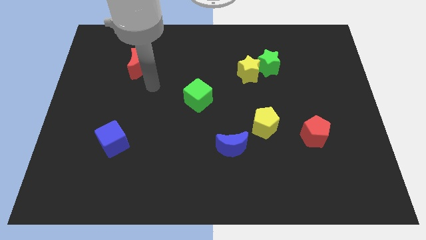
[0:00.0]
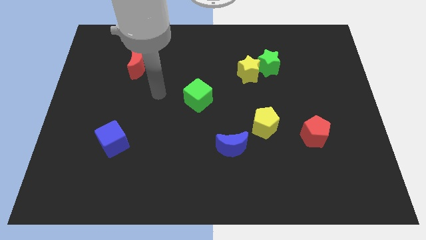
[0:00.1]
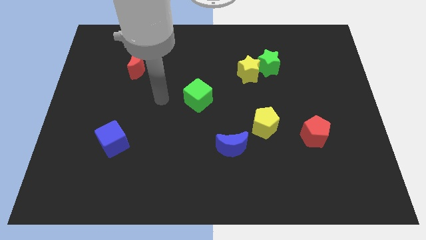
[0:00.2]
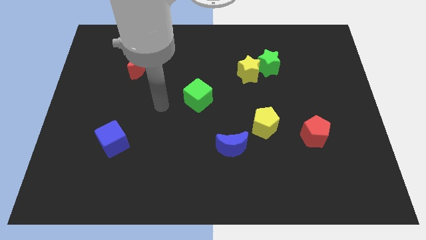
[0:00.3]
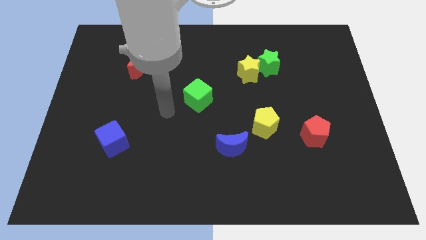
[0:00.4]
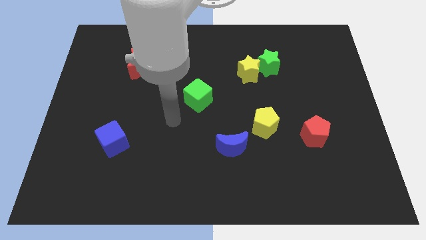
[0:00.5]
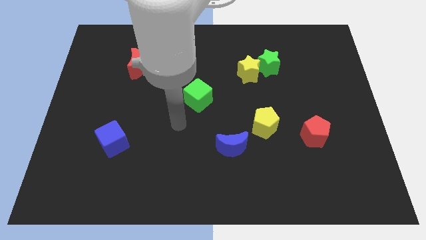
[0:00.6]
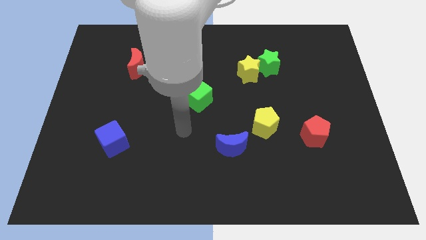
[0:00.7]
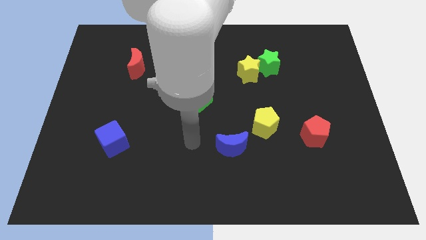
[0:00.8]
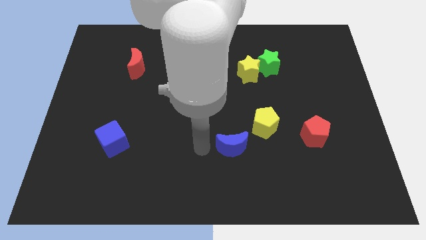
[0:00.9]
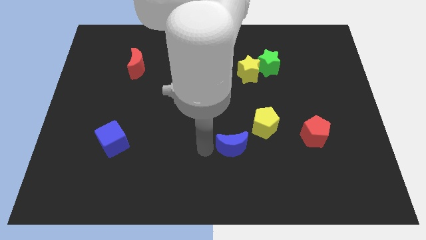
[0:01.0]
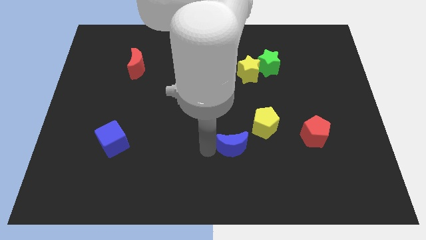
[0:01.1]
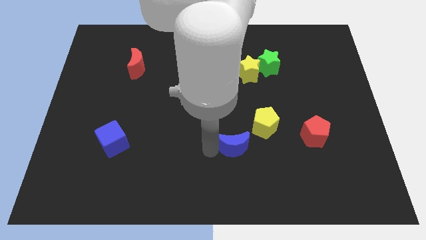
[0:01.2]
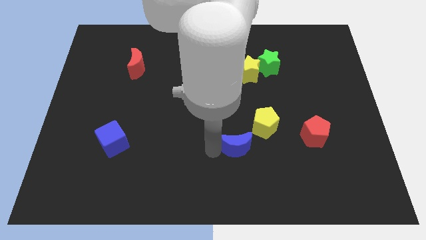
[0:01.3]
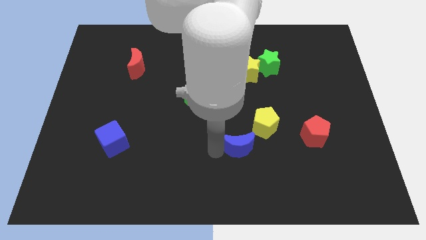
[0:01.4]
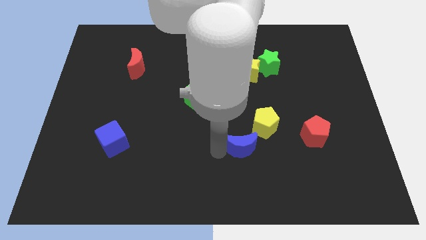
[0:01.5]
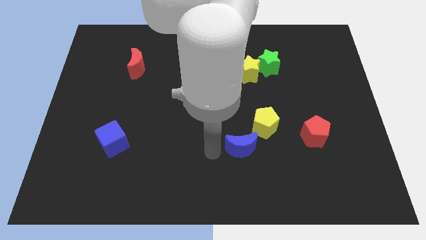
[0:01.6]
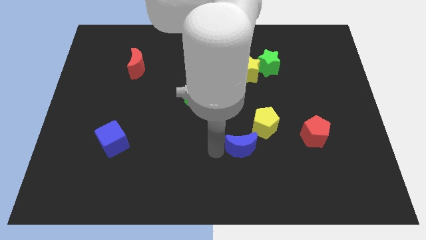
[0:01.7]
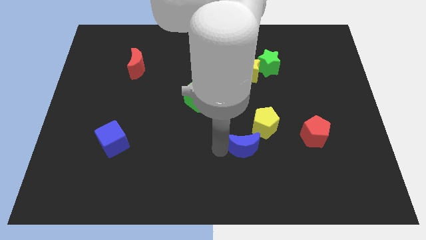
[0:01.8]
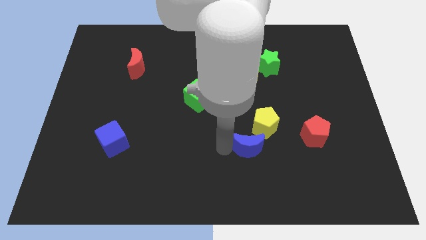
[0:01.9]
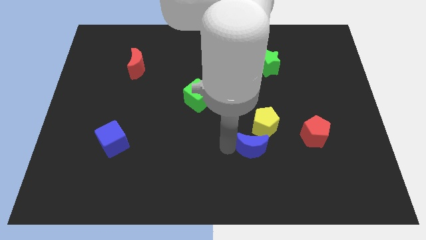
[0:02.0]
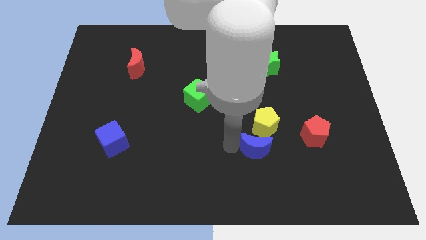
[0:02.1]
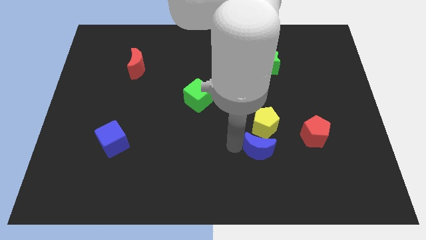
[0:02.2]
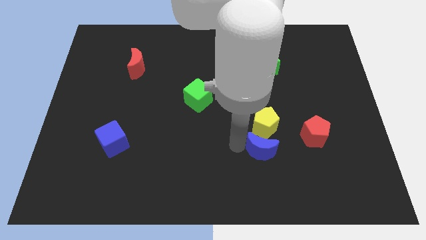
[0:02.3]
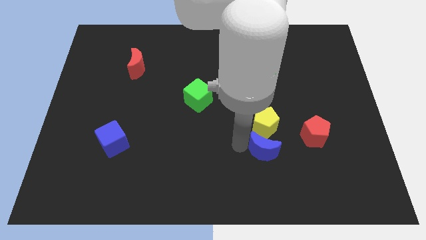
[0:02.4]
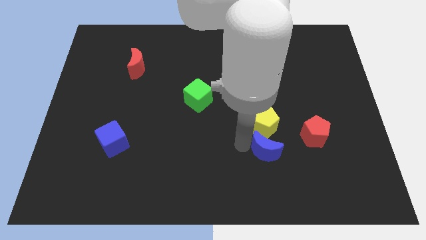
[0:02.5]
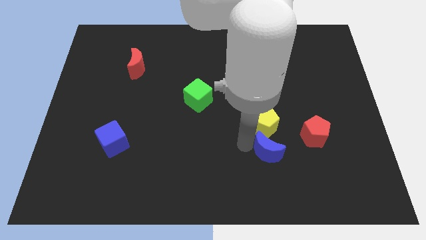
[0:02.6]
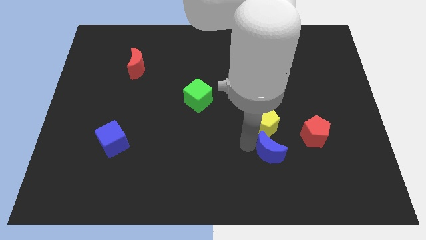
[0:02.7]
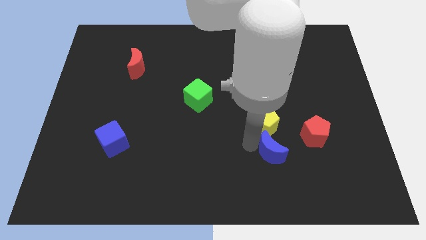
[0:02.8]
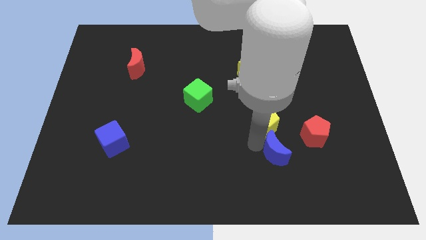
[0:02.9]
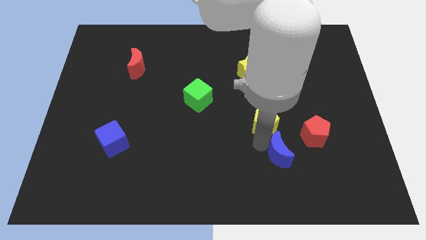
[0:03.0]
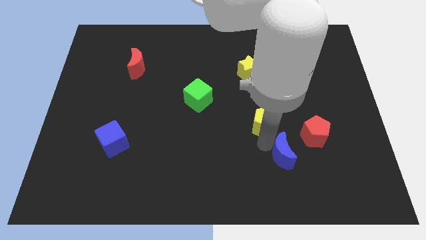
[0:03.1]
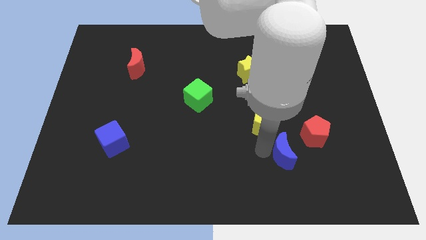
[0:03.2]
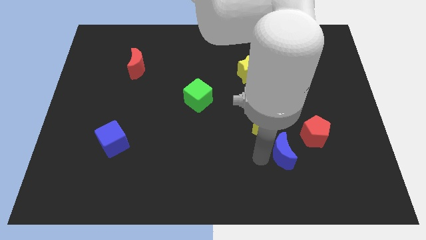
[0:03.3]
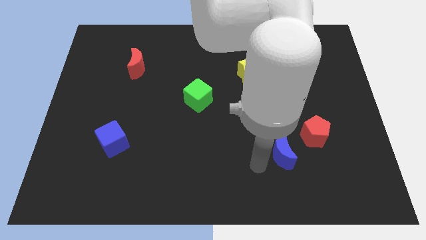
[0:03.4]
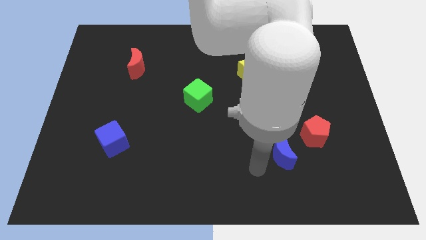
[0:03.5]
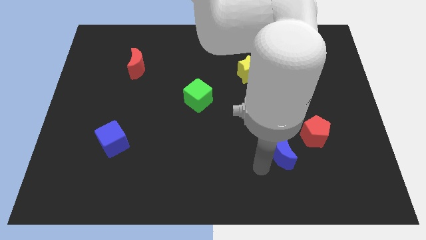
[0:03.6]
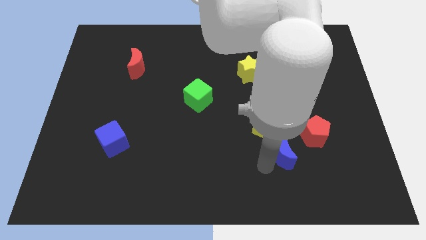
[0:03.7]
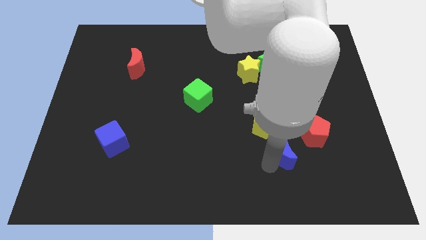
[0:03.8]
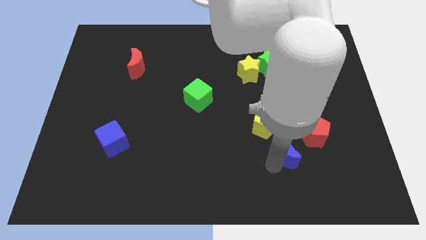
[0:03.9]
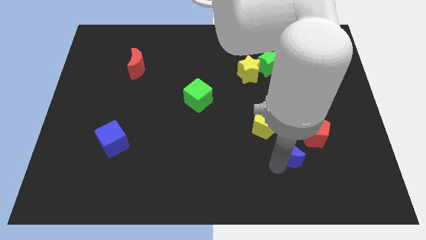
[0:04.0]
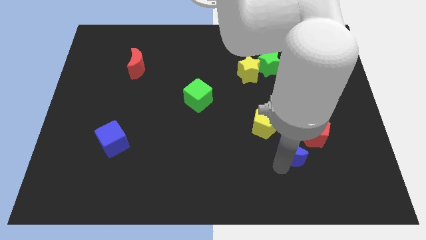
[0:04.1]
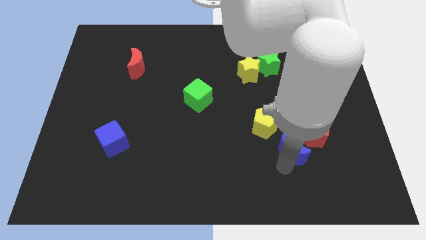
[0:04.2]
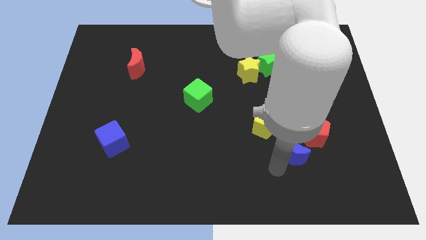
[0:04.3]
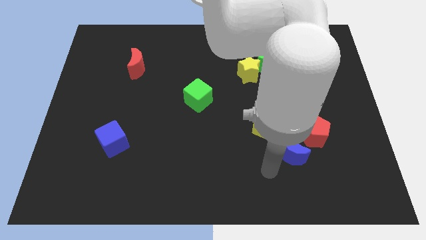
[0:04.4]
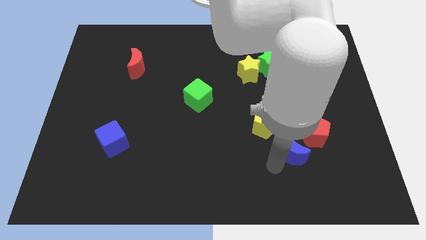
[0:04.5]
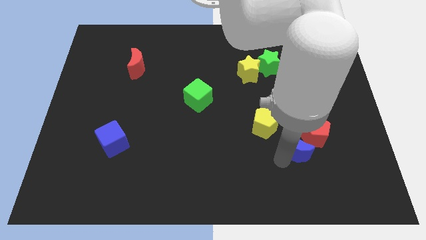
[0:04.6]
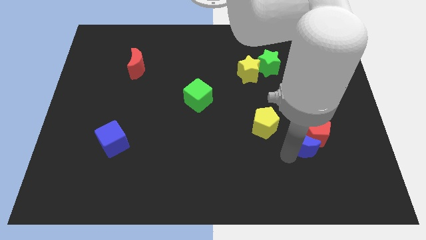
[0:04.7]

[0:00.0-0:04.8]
put the blue moon next to the red pentagon

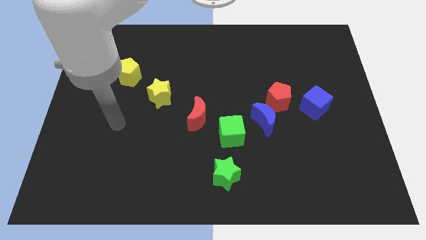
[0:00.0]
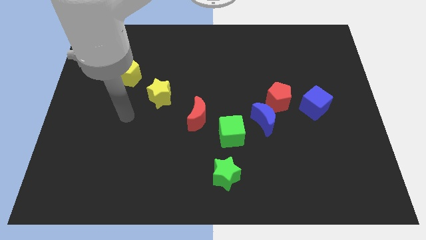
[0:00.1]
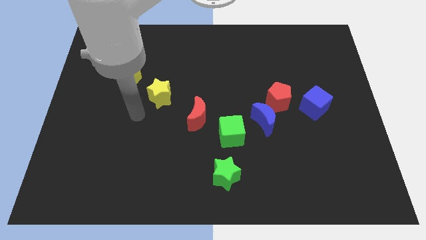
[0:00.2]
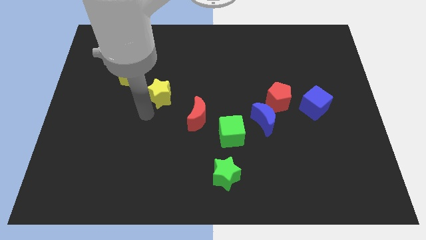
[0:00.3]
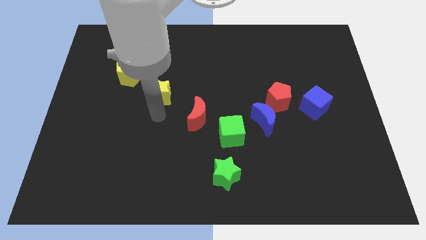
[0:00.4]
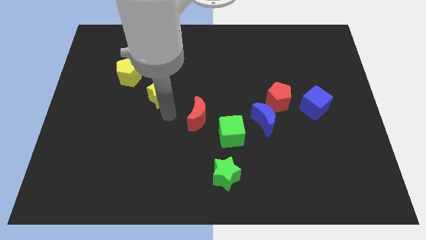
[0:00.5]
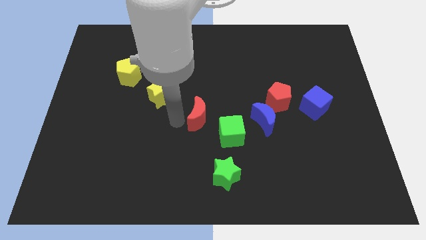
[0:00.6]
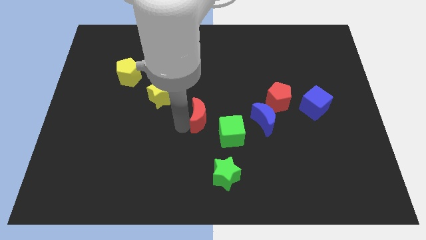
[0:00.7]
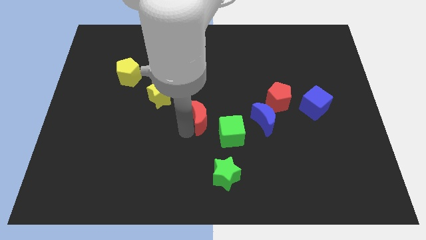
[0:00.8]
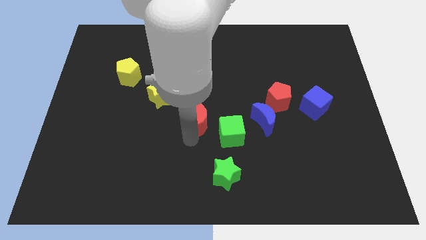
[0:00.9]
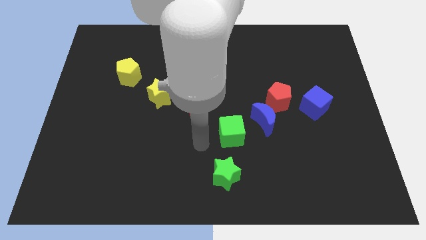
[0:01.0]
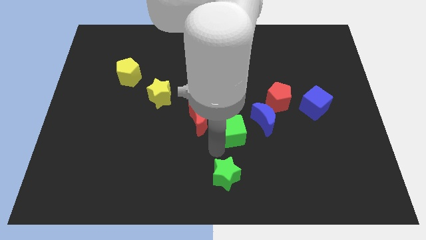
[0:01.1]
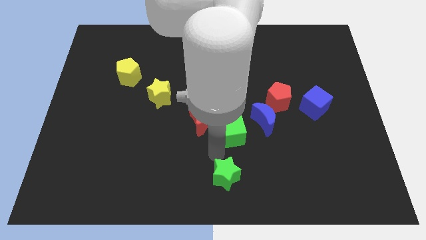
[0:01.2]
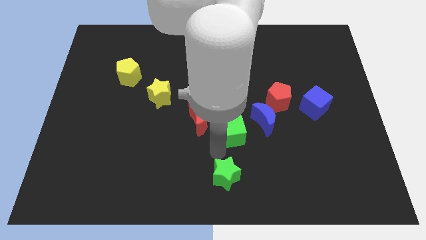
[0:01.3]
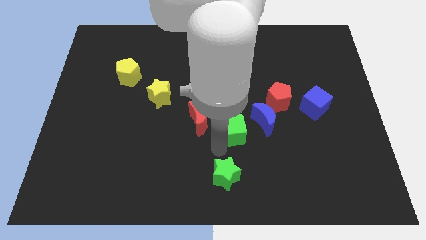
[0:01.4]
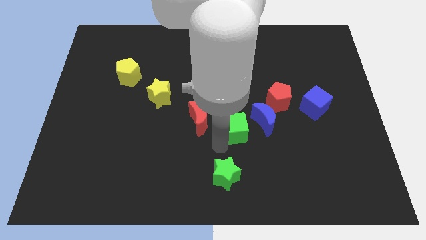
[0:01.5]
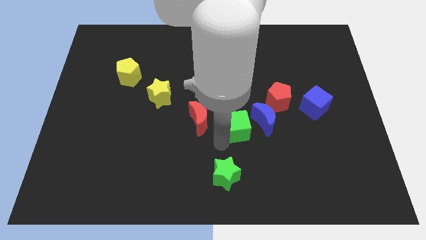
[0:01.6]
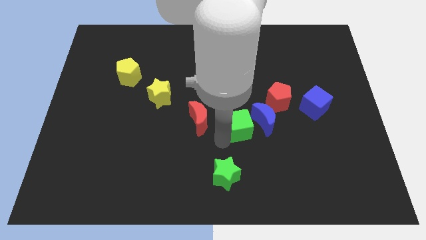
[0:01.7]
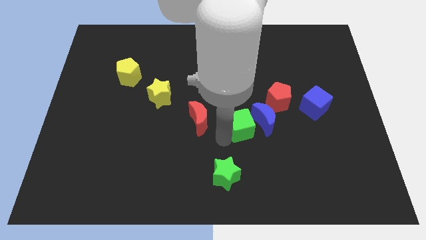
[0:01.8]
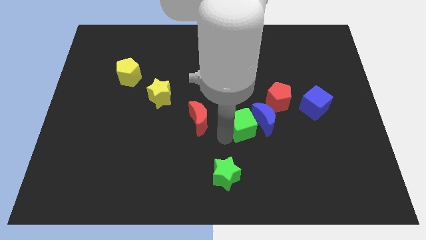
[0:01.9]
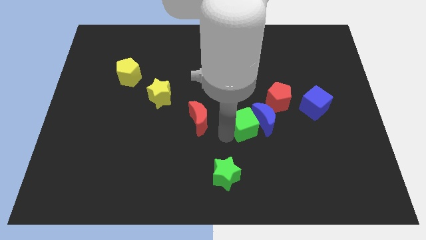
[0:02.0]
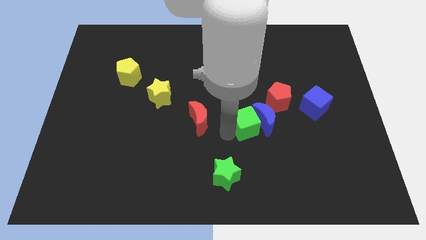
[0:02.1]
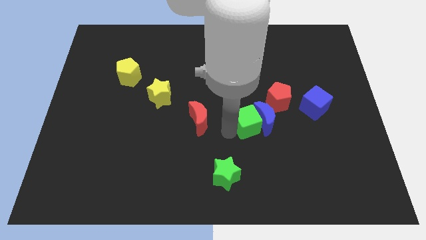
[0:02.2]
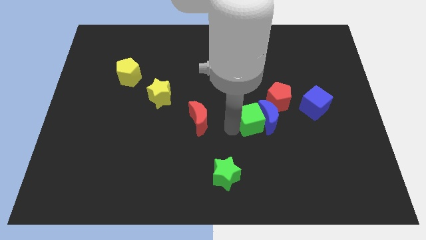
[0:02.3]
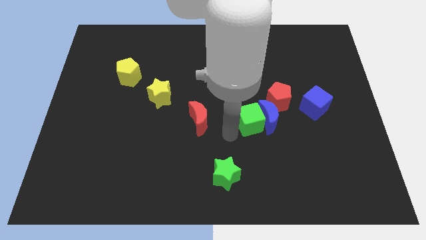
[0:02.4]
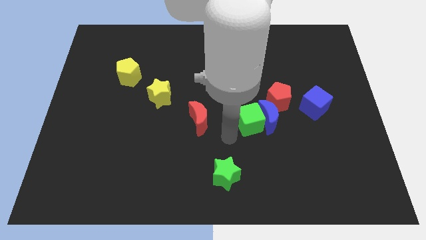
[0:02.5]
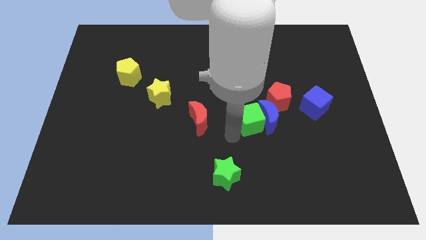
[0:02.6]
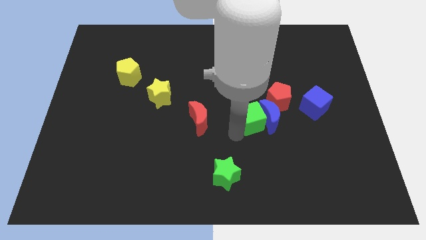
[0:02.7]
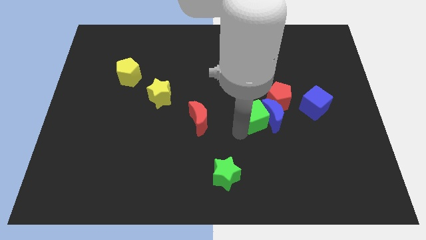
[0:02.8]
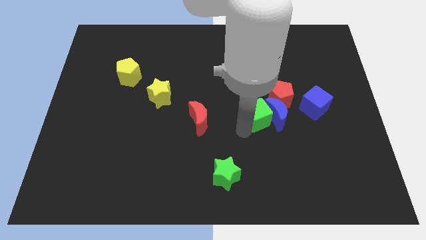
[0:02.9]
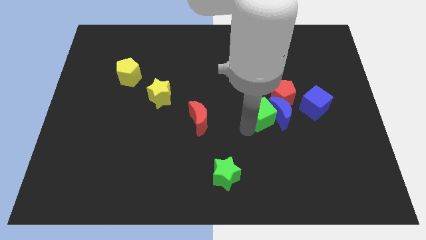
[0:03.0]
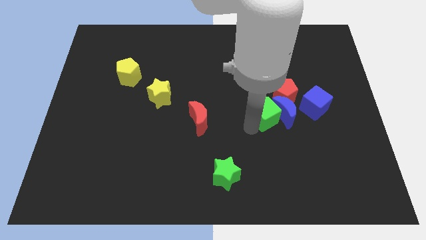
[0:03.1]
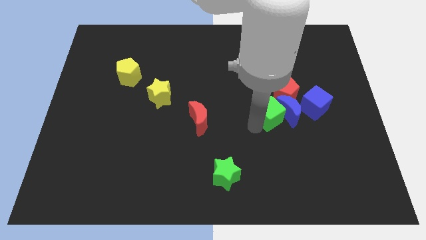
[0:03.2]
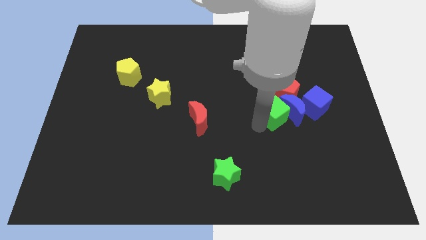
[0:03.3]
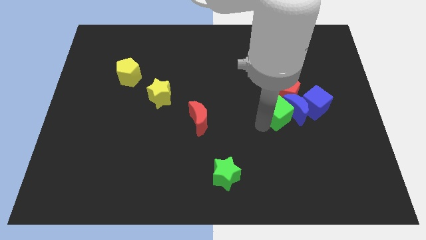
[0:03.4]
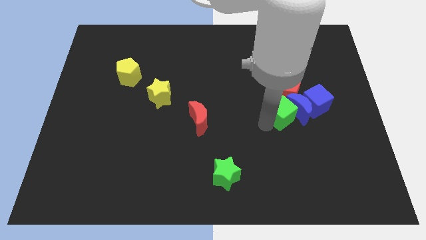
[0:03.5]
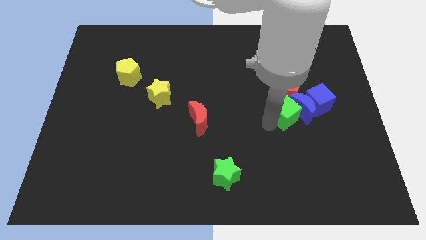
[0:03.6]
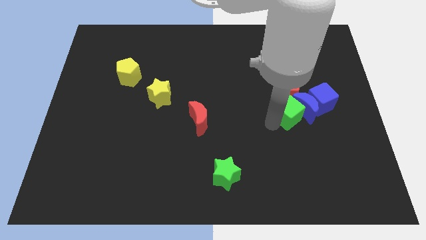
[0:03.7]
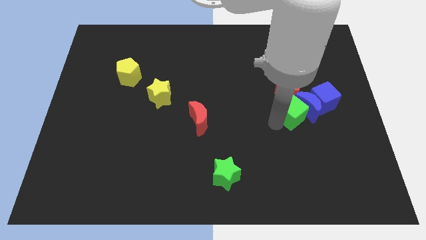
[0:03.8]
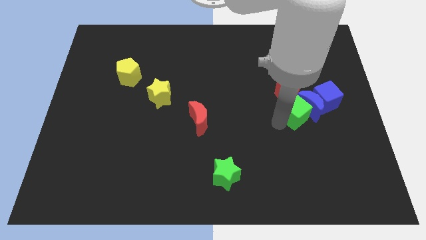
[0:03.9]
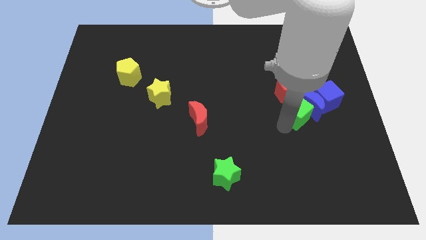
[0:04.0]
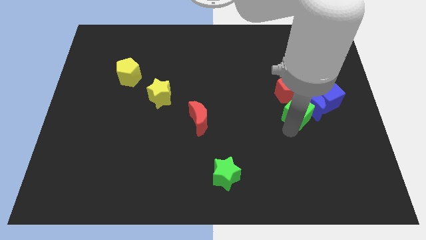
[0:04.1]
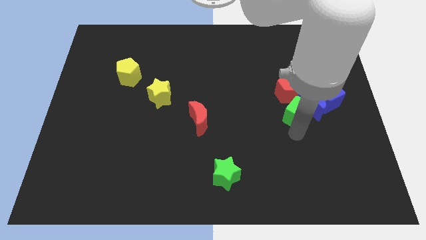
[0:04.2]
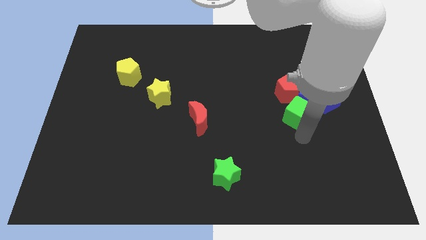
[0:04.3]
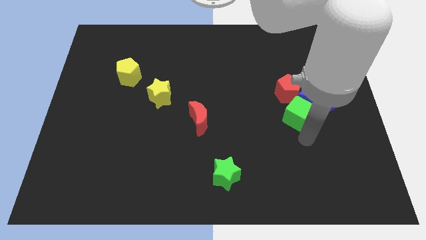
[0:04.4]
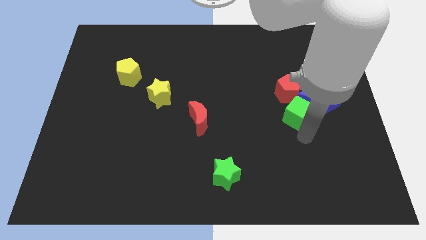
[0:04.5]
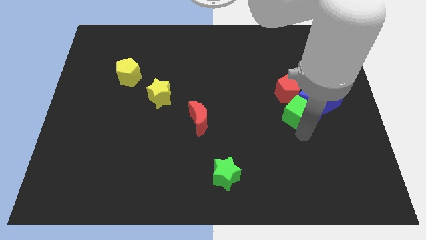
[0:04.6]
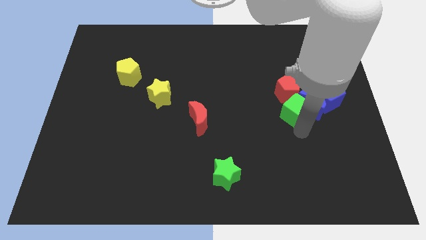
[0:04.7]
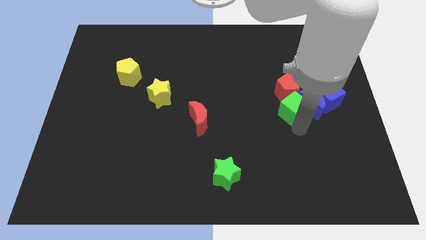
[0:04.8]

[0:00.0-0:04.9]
move the green cube to the red pentagon
